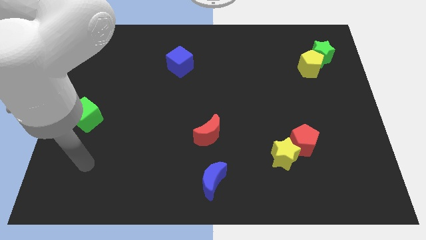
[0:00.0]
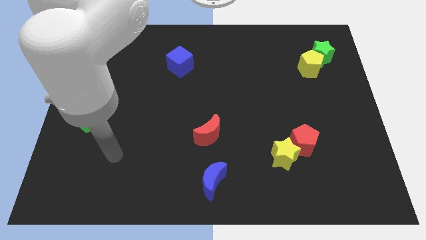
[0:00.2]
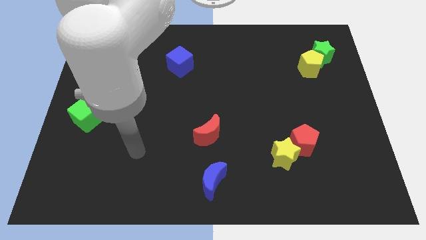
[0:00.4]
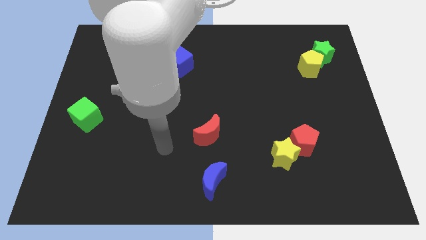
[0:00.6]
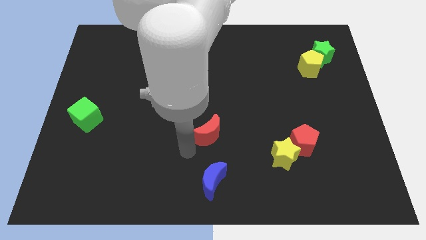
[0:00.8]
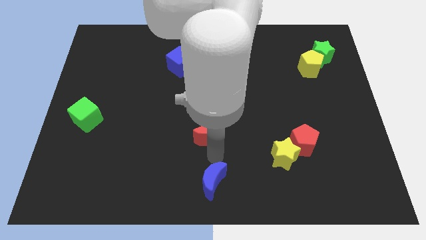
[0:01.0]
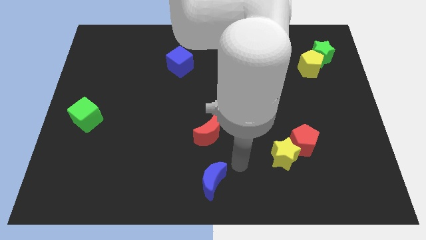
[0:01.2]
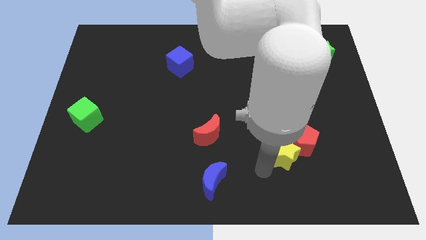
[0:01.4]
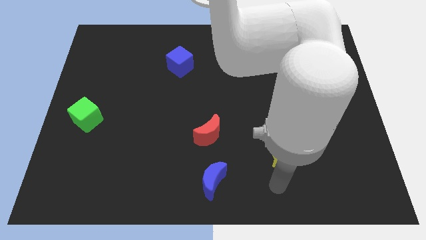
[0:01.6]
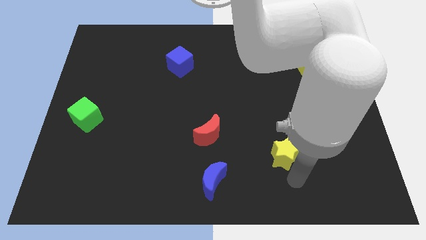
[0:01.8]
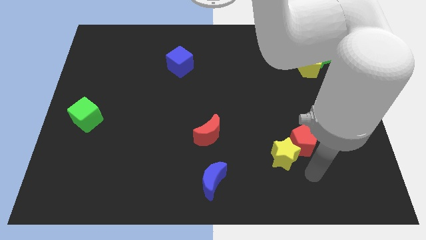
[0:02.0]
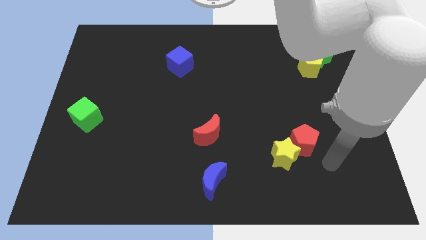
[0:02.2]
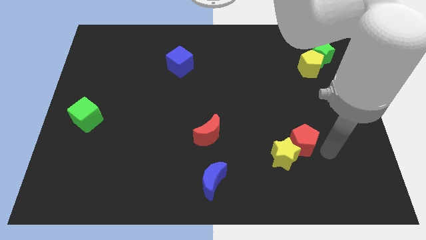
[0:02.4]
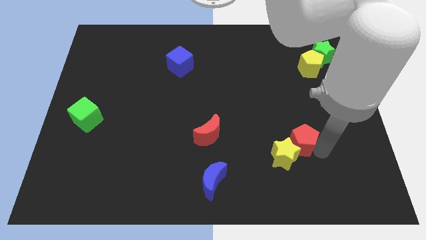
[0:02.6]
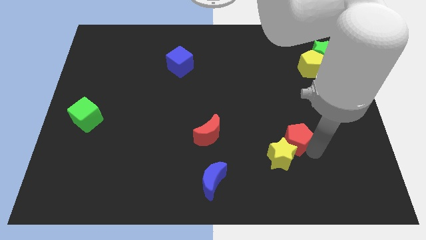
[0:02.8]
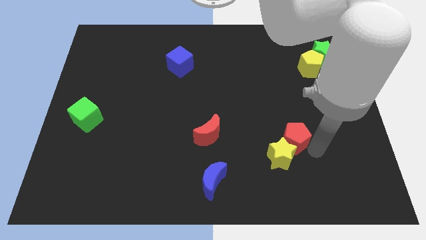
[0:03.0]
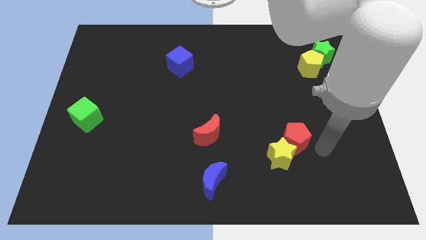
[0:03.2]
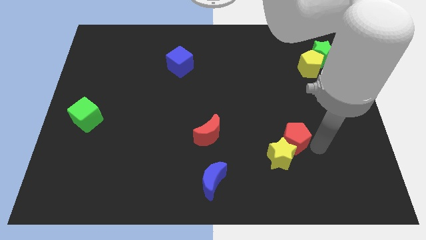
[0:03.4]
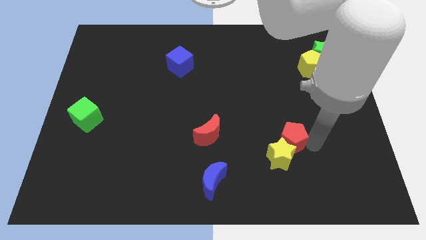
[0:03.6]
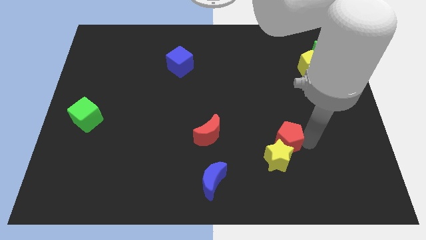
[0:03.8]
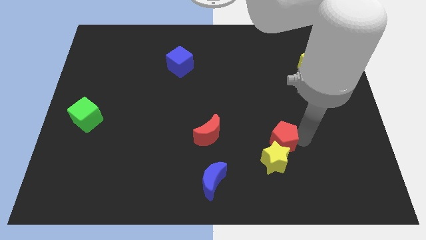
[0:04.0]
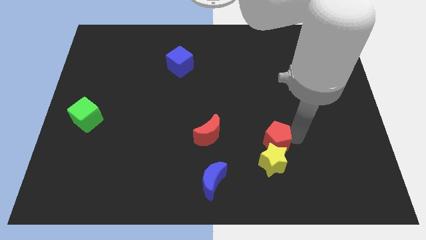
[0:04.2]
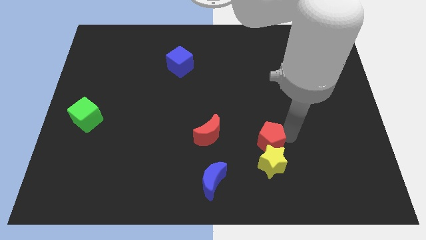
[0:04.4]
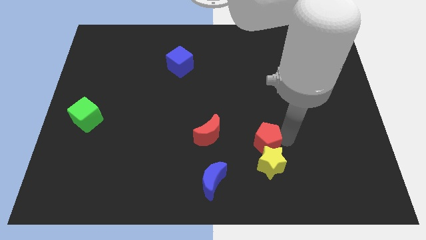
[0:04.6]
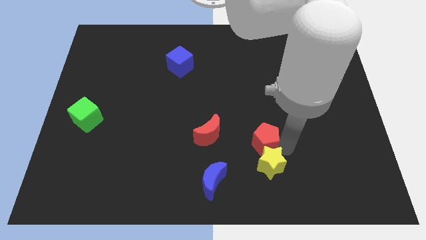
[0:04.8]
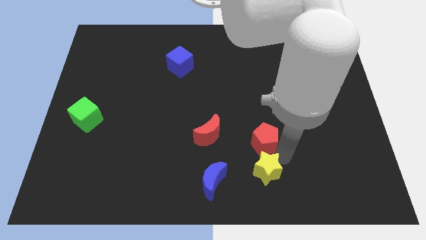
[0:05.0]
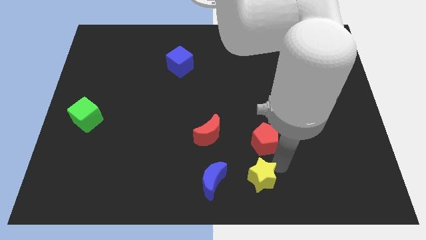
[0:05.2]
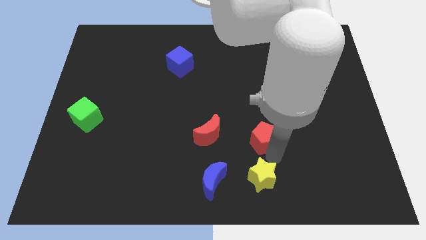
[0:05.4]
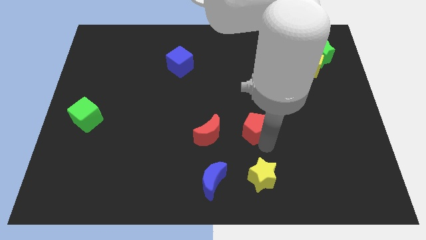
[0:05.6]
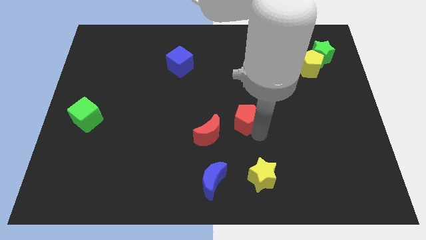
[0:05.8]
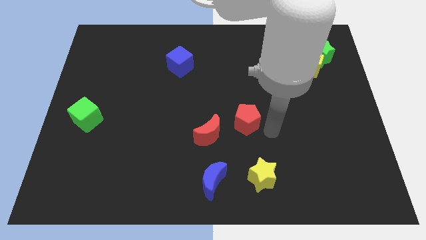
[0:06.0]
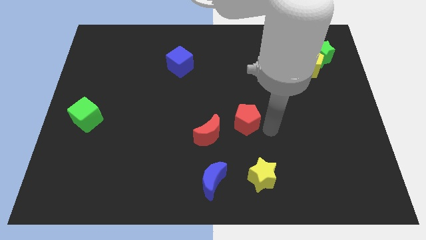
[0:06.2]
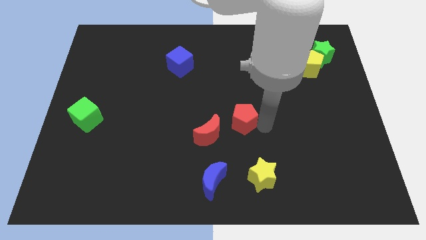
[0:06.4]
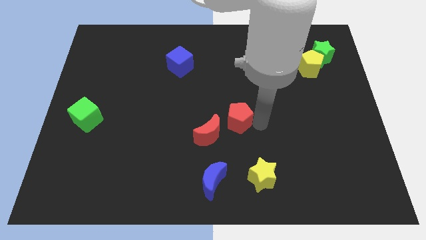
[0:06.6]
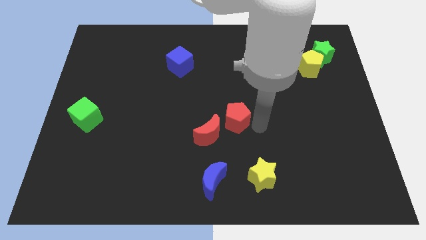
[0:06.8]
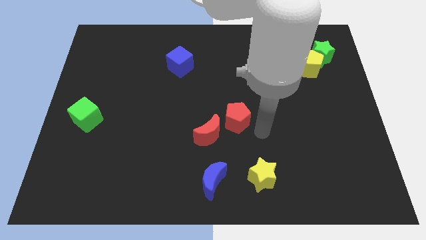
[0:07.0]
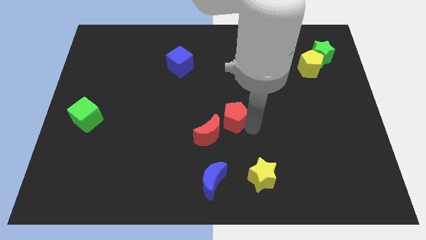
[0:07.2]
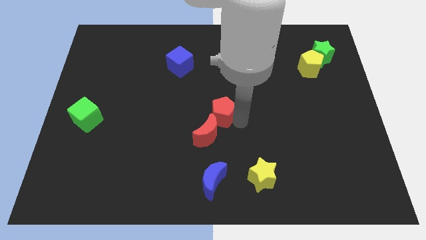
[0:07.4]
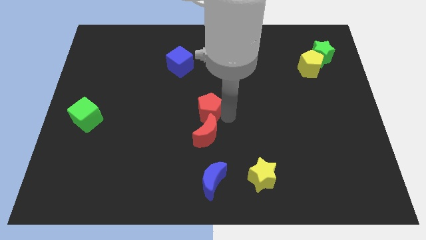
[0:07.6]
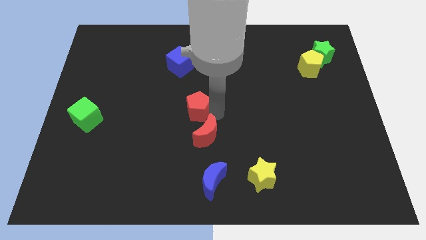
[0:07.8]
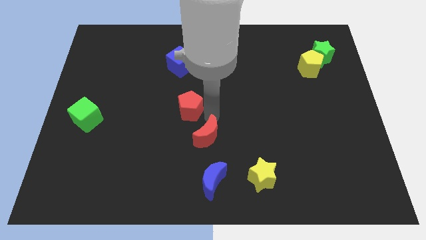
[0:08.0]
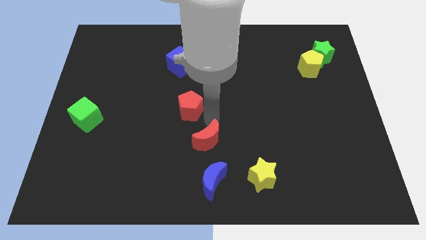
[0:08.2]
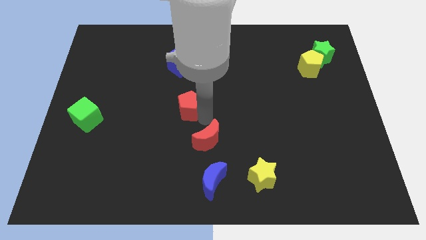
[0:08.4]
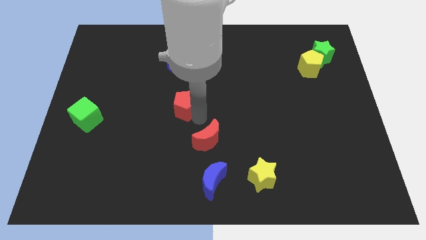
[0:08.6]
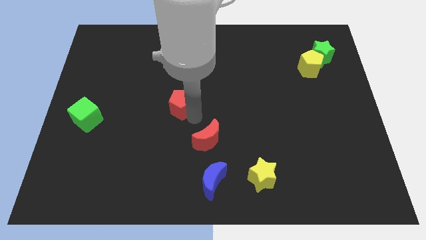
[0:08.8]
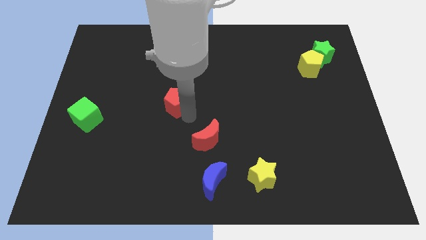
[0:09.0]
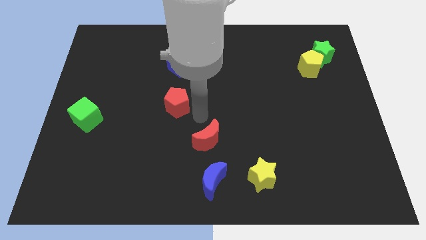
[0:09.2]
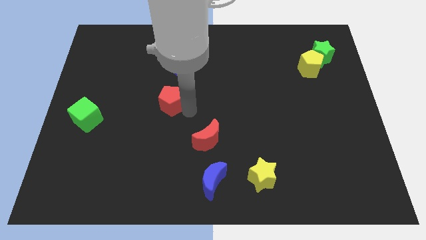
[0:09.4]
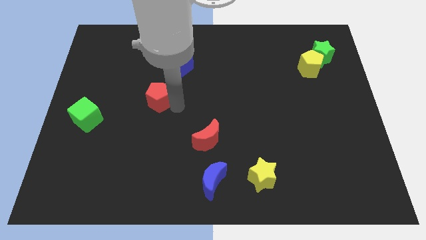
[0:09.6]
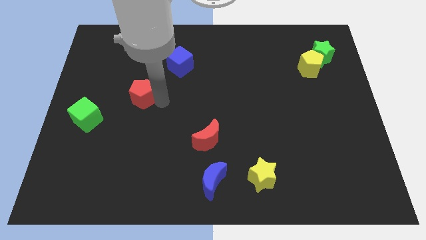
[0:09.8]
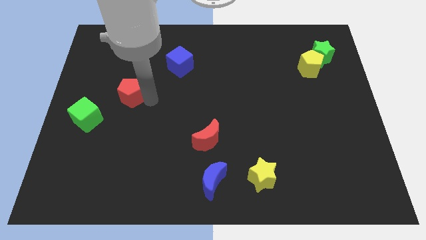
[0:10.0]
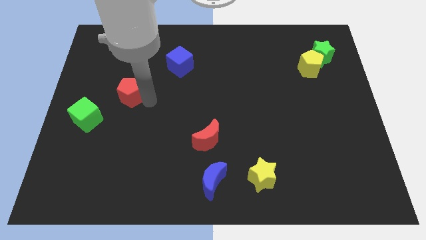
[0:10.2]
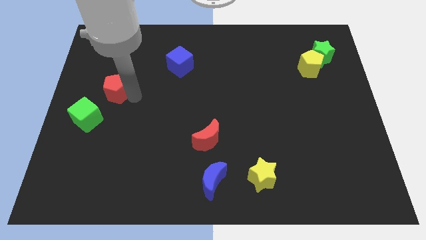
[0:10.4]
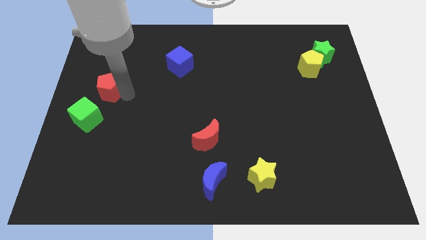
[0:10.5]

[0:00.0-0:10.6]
move the red pentagon above the green cube

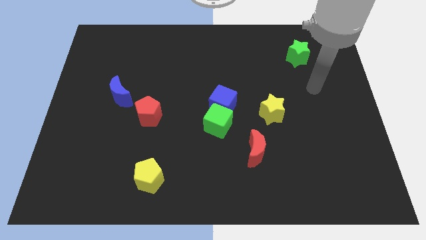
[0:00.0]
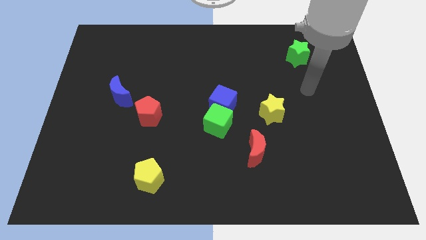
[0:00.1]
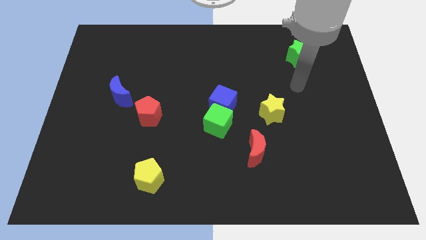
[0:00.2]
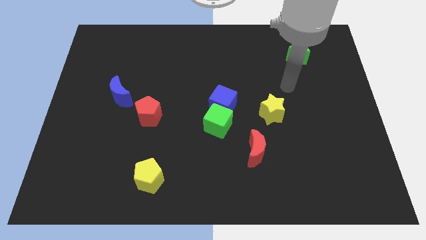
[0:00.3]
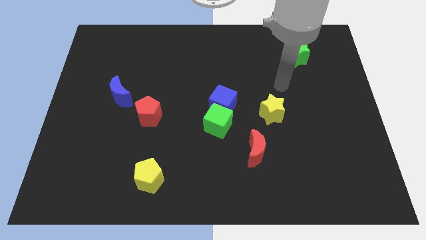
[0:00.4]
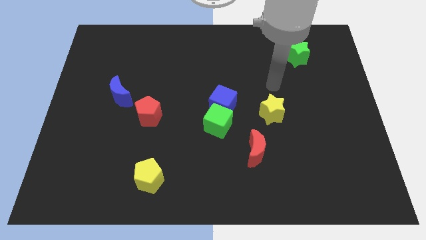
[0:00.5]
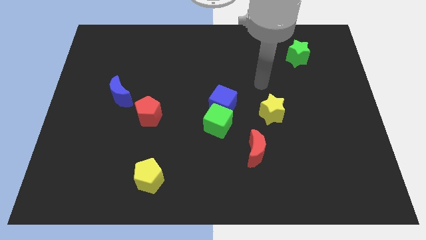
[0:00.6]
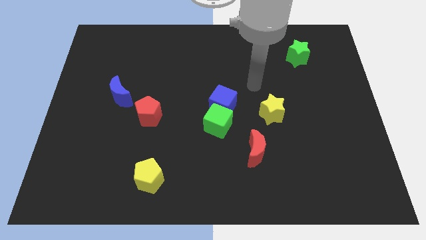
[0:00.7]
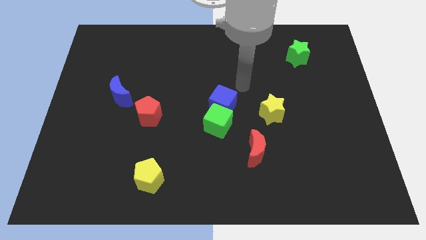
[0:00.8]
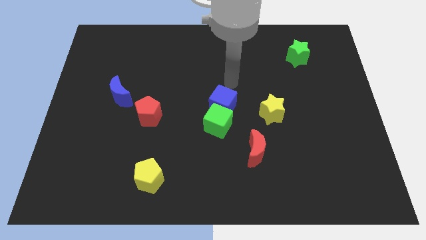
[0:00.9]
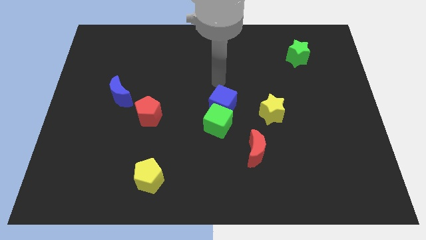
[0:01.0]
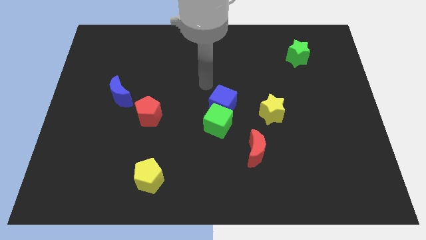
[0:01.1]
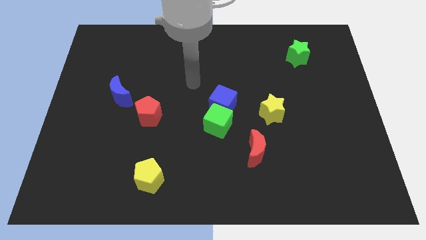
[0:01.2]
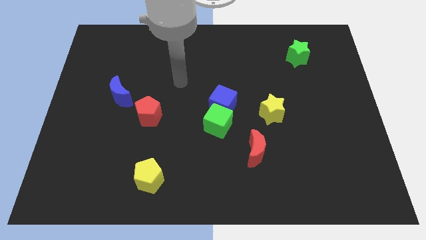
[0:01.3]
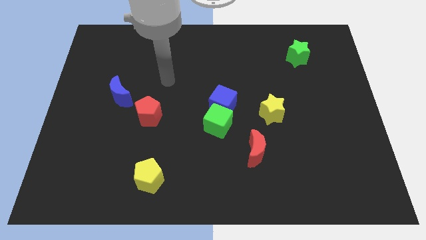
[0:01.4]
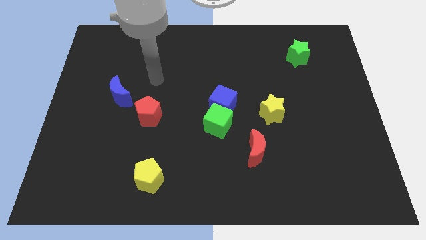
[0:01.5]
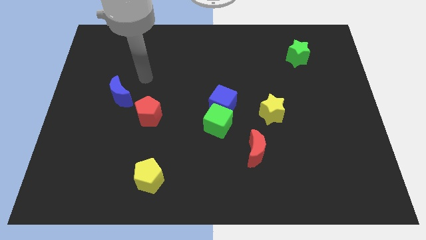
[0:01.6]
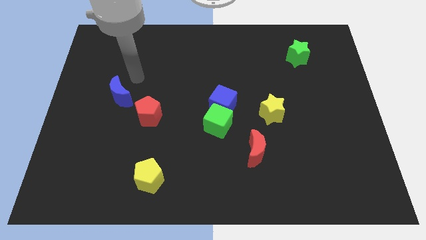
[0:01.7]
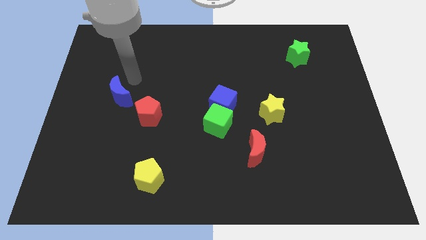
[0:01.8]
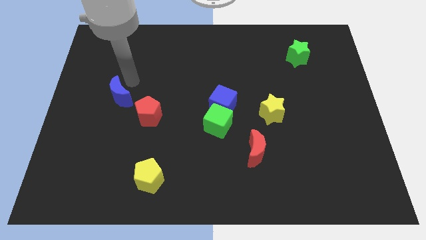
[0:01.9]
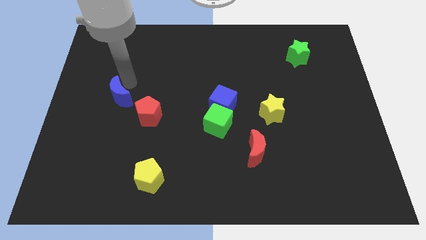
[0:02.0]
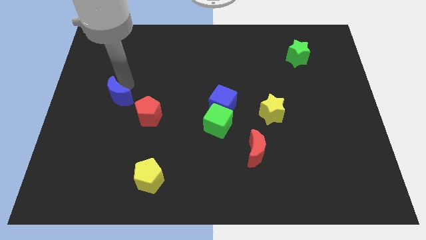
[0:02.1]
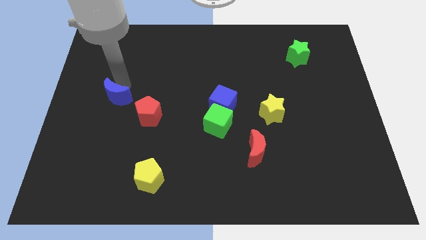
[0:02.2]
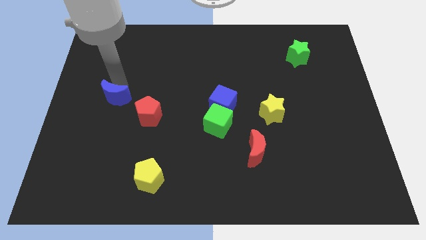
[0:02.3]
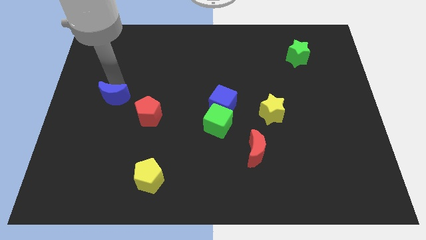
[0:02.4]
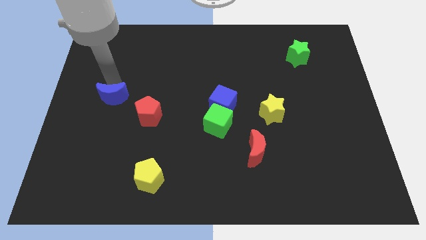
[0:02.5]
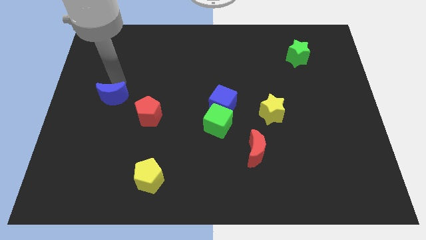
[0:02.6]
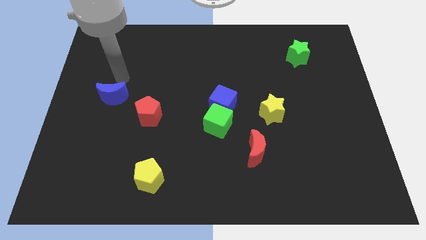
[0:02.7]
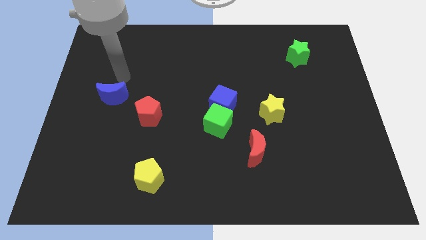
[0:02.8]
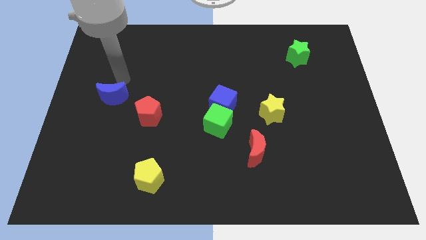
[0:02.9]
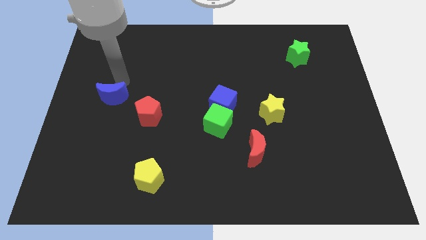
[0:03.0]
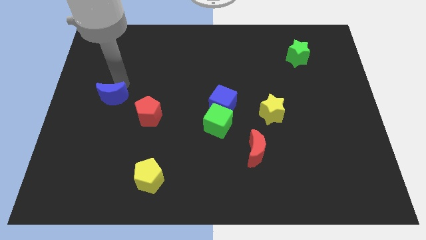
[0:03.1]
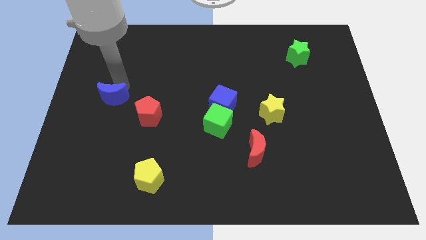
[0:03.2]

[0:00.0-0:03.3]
move the blue moon just left of the red pentagon
